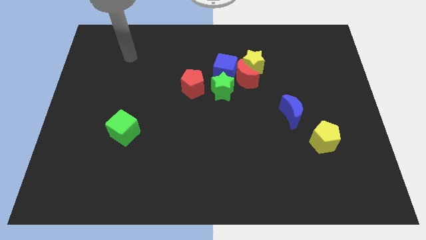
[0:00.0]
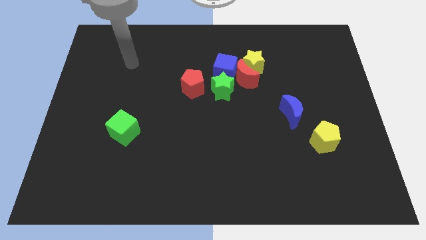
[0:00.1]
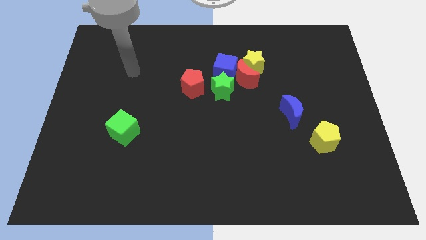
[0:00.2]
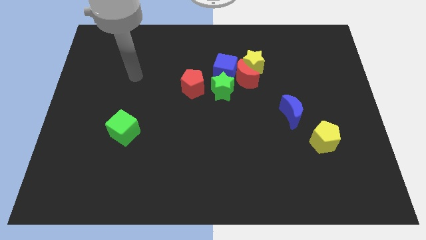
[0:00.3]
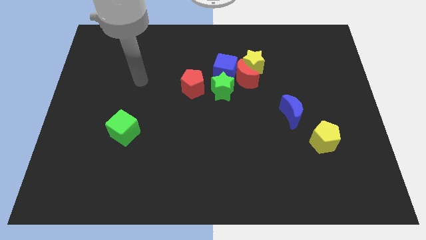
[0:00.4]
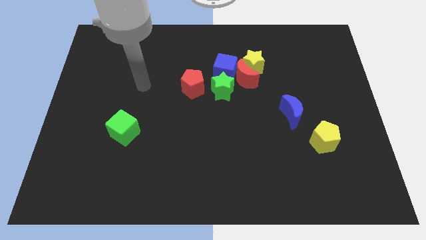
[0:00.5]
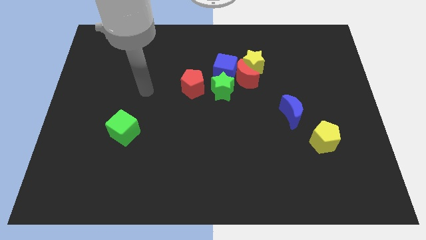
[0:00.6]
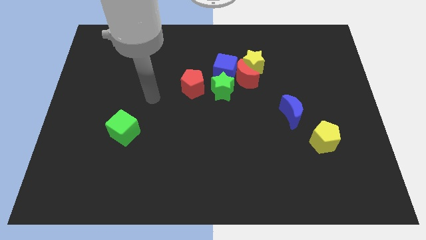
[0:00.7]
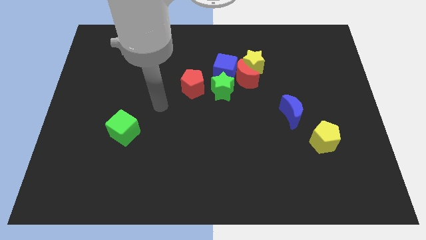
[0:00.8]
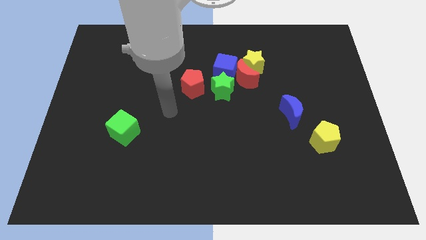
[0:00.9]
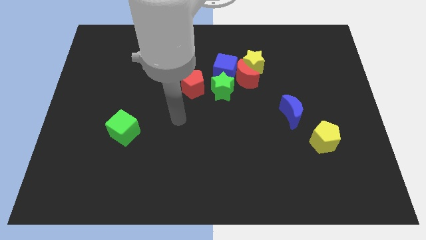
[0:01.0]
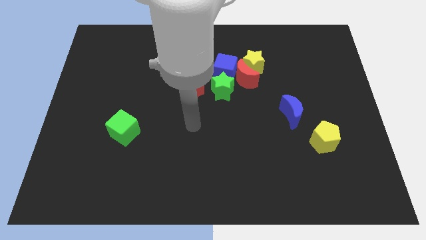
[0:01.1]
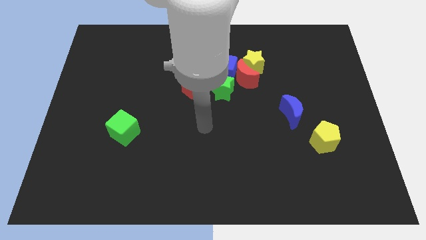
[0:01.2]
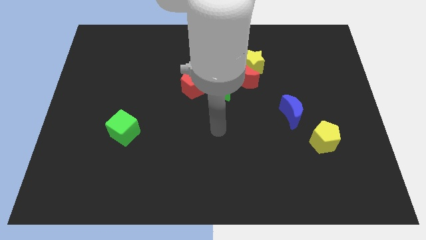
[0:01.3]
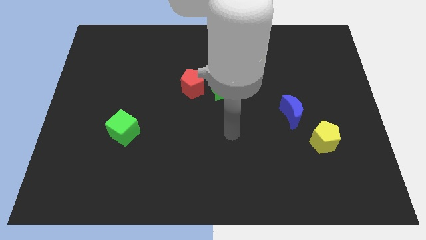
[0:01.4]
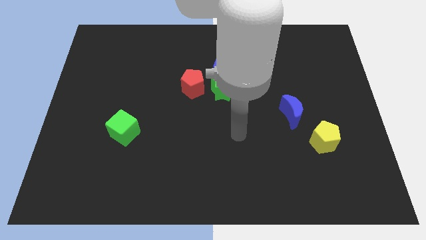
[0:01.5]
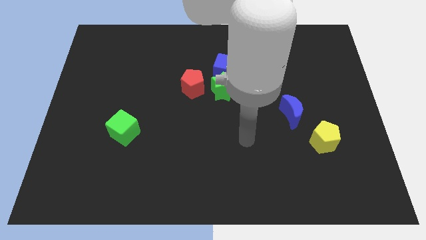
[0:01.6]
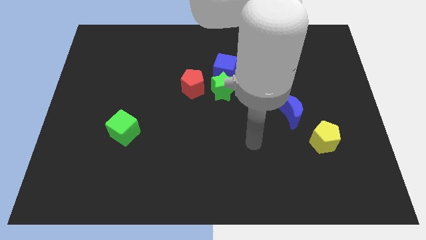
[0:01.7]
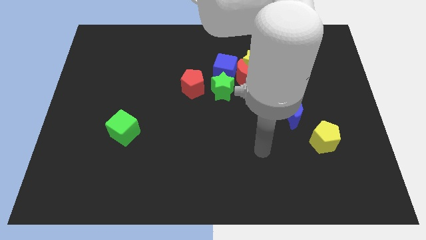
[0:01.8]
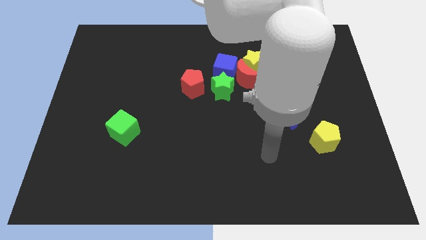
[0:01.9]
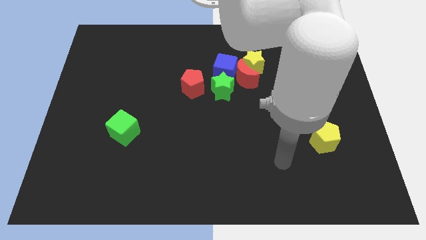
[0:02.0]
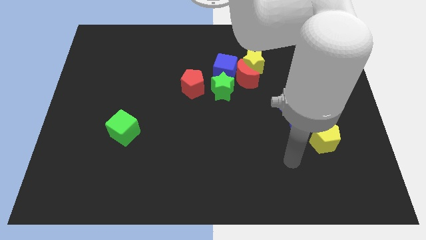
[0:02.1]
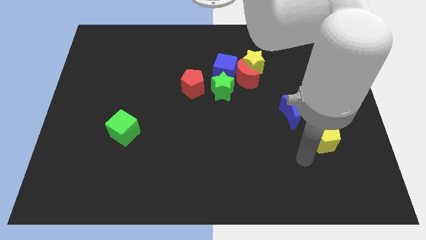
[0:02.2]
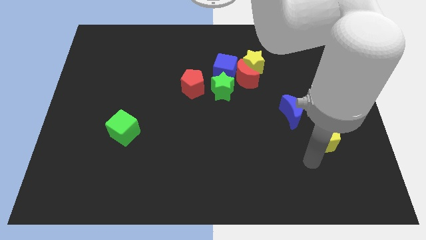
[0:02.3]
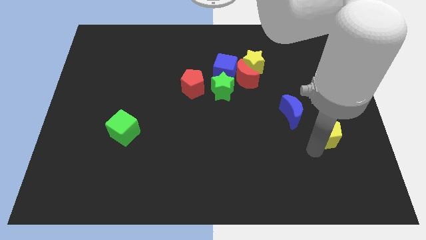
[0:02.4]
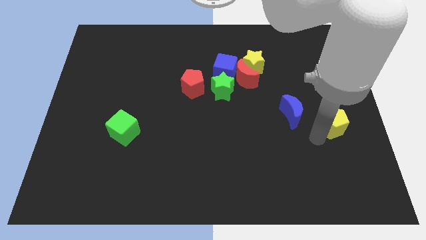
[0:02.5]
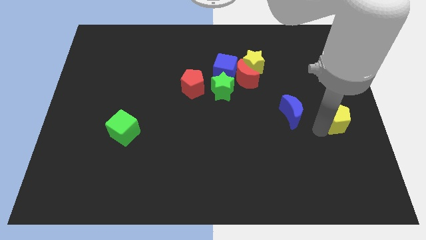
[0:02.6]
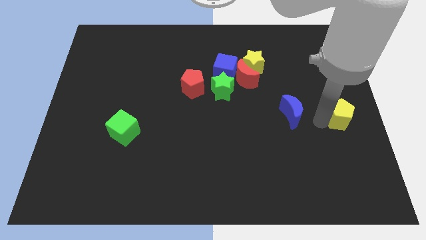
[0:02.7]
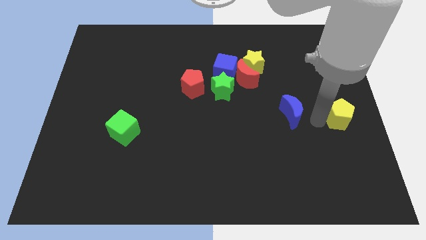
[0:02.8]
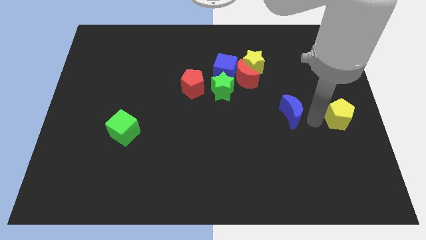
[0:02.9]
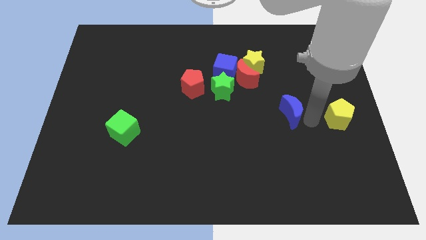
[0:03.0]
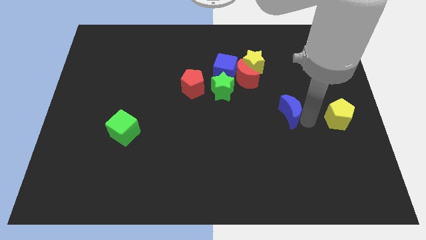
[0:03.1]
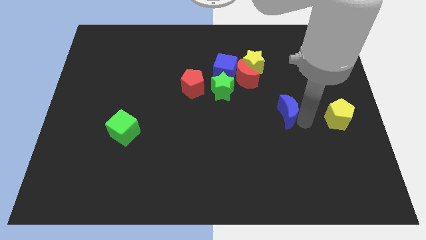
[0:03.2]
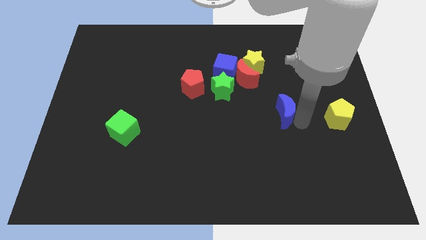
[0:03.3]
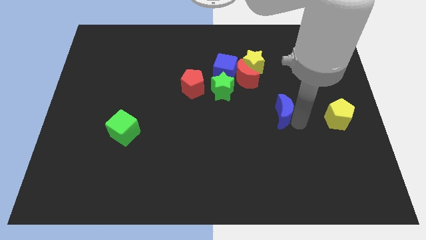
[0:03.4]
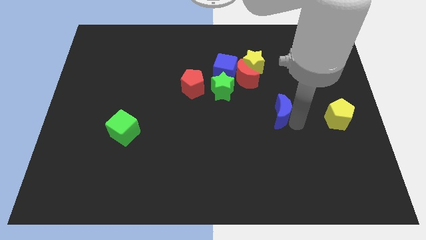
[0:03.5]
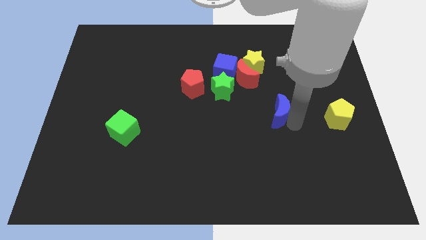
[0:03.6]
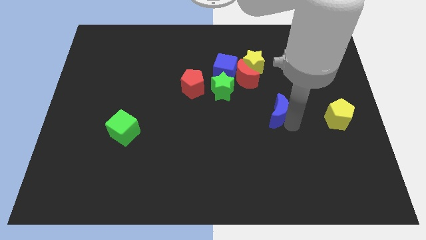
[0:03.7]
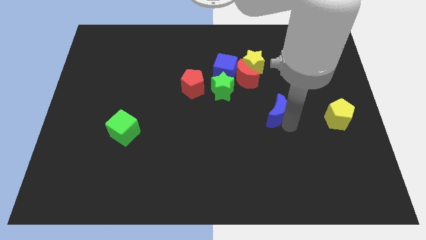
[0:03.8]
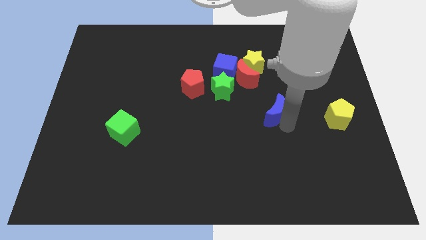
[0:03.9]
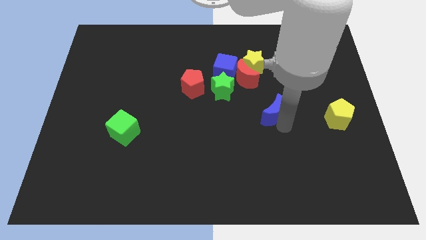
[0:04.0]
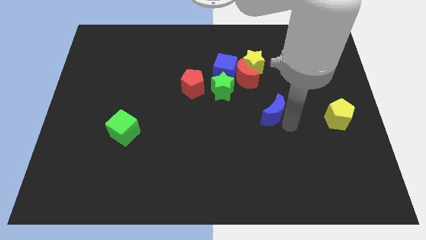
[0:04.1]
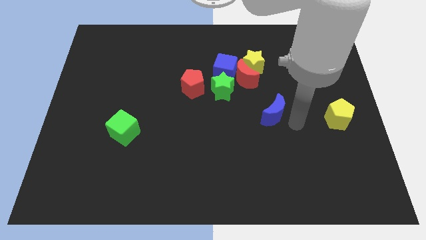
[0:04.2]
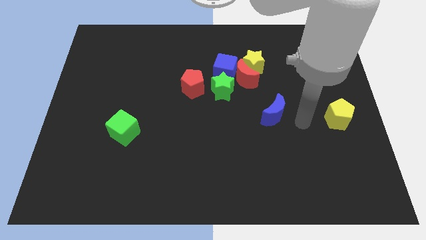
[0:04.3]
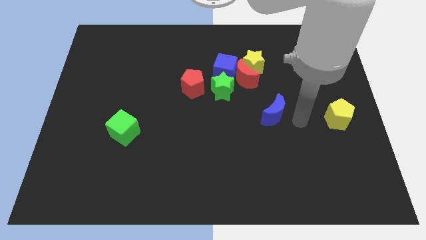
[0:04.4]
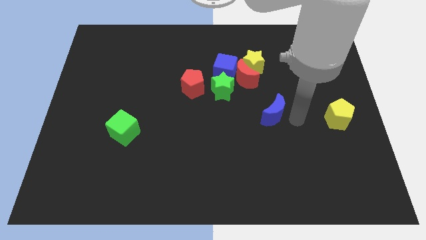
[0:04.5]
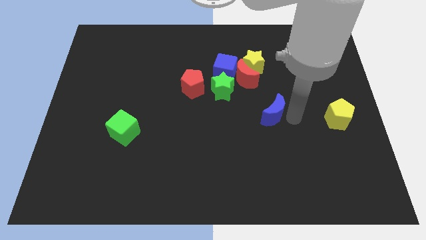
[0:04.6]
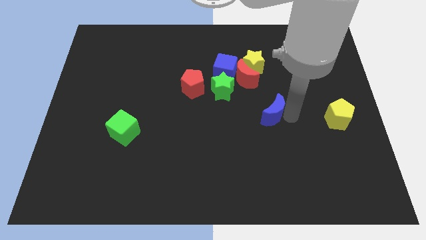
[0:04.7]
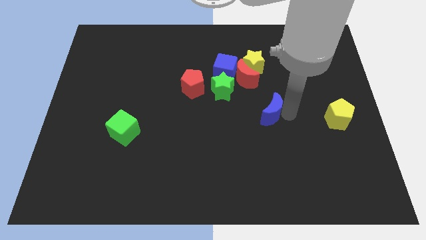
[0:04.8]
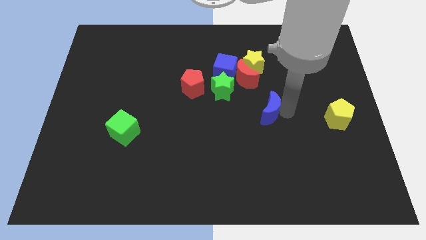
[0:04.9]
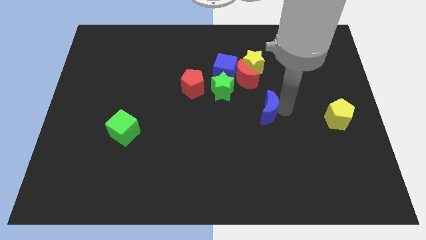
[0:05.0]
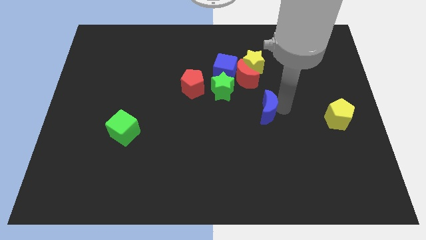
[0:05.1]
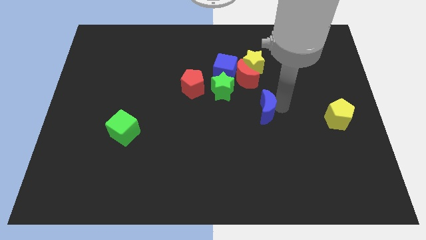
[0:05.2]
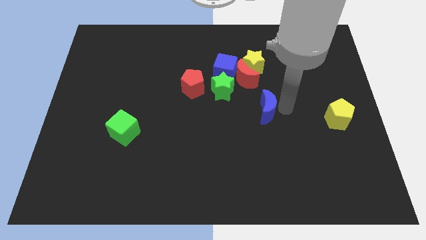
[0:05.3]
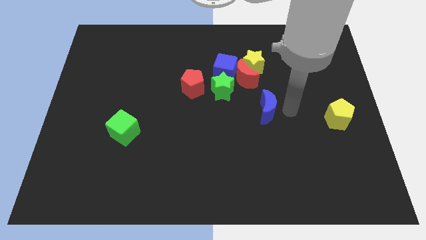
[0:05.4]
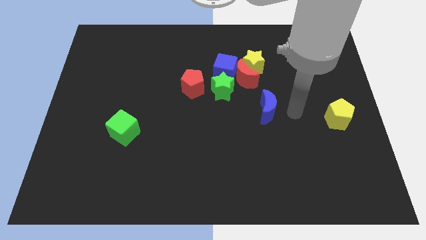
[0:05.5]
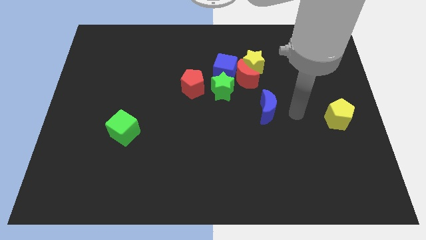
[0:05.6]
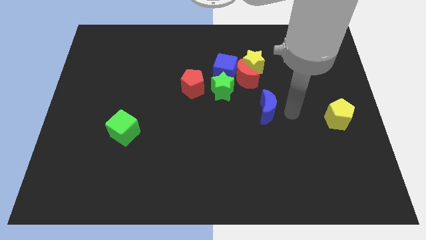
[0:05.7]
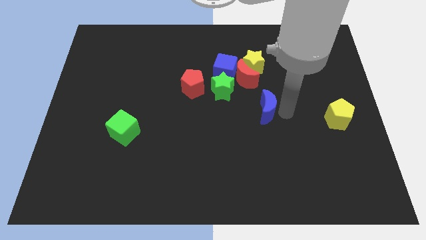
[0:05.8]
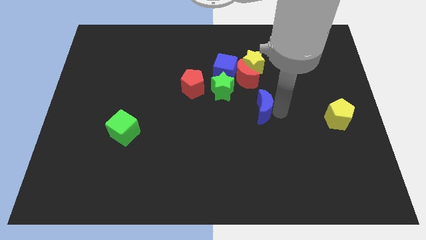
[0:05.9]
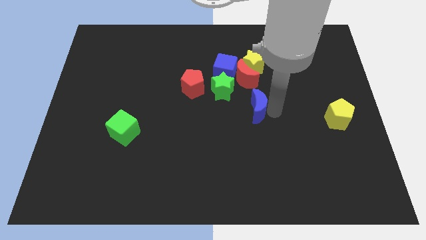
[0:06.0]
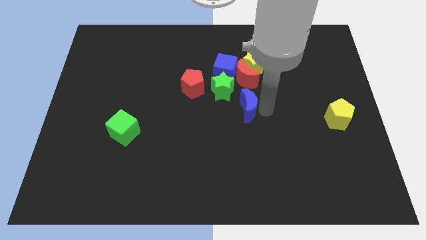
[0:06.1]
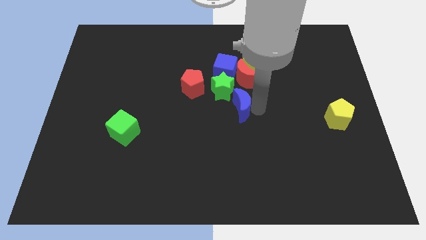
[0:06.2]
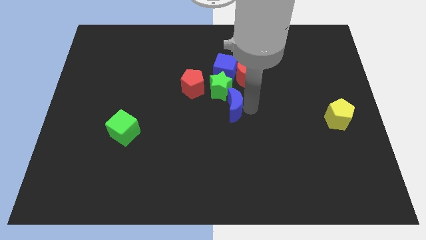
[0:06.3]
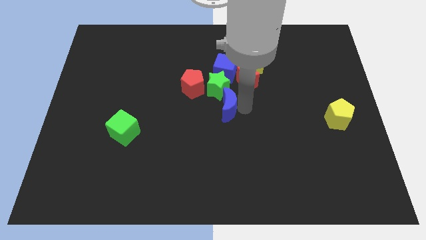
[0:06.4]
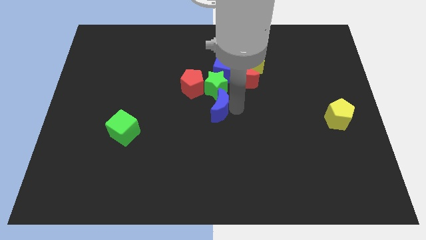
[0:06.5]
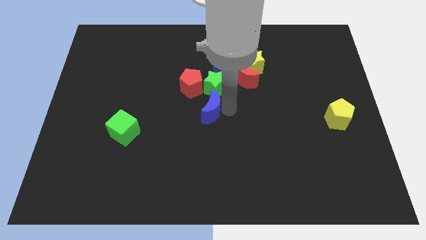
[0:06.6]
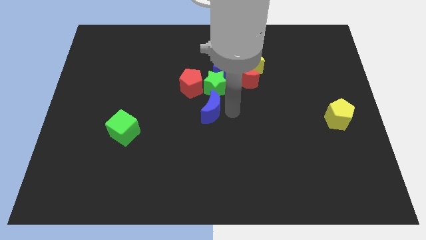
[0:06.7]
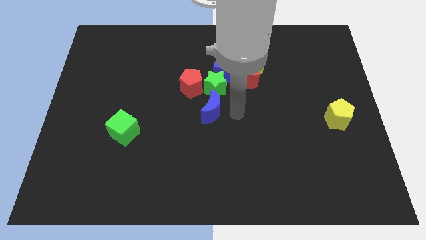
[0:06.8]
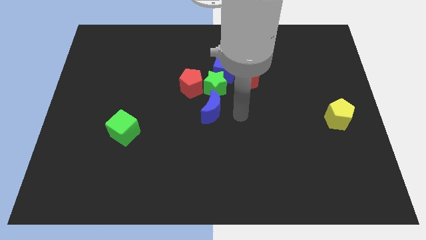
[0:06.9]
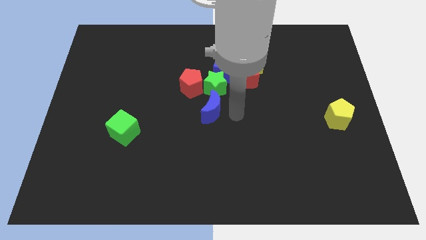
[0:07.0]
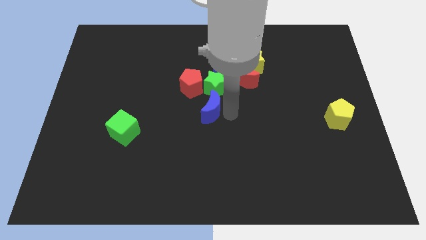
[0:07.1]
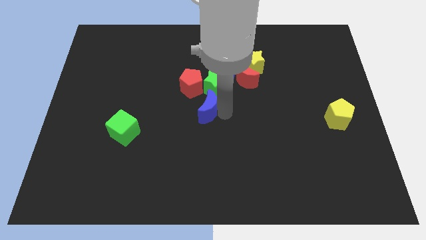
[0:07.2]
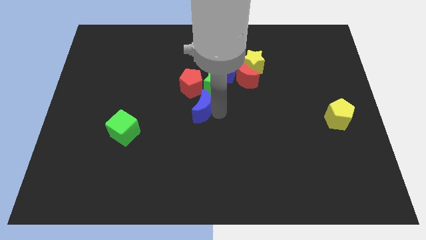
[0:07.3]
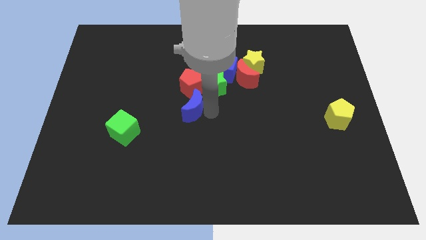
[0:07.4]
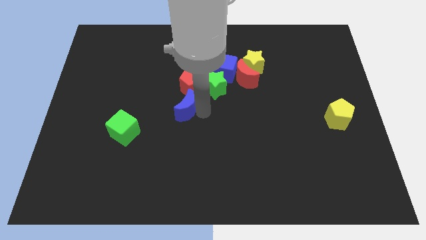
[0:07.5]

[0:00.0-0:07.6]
put the blue moon diagonally down and to the left of the red pentagon
